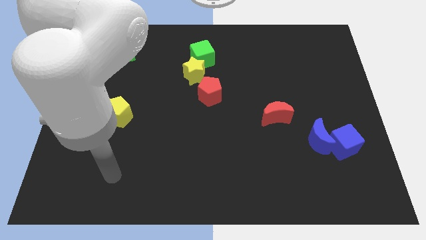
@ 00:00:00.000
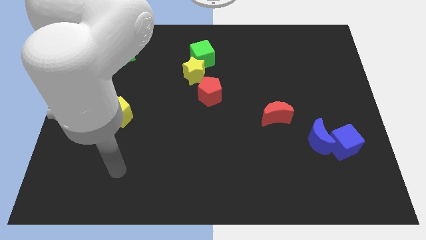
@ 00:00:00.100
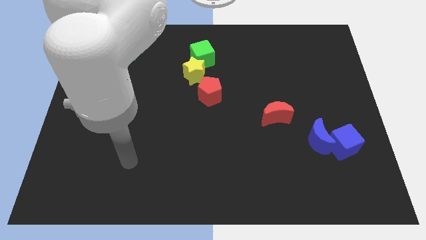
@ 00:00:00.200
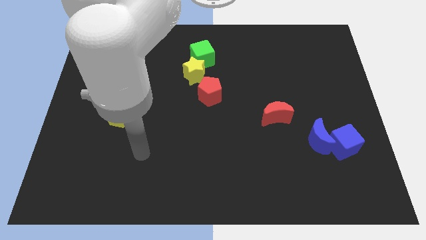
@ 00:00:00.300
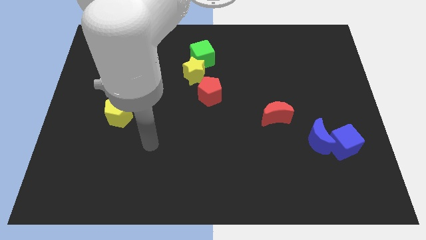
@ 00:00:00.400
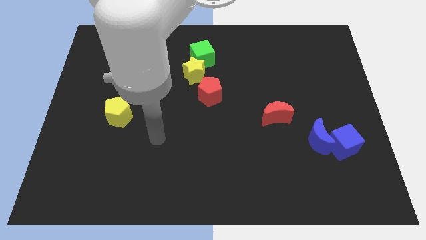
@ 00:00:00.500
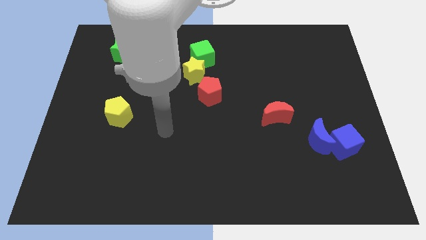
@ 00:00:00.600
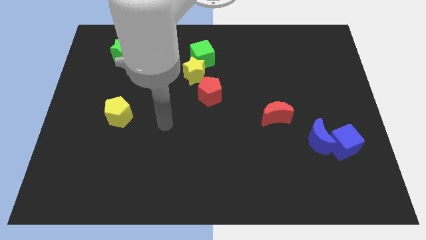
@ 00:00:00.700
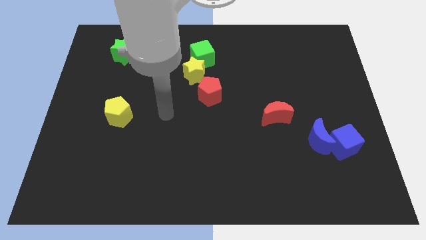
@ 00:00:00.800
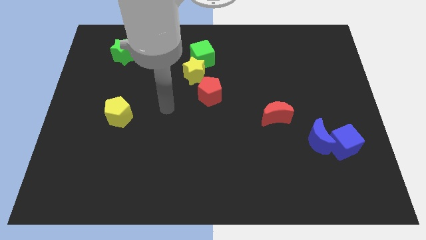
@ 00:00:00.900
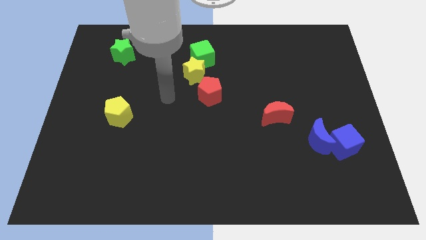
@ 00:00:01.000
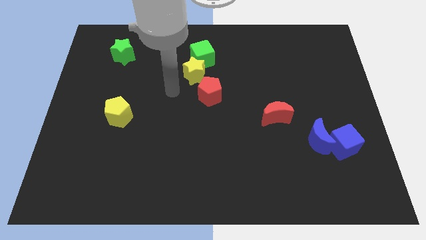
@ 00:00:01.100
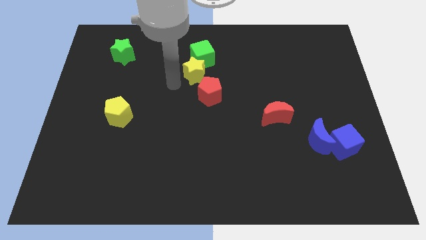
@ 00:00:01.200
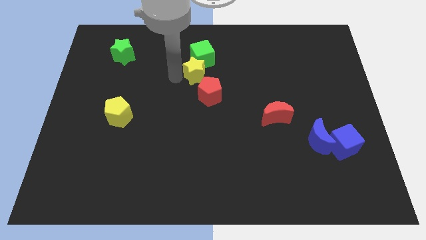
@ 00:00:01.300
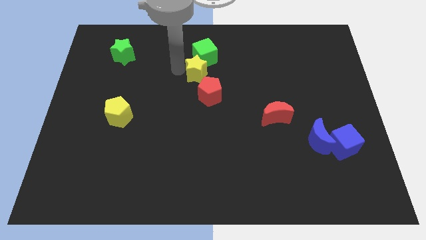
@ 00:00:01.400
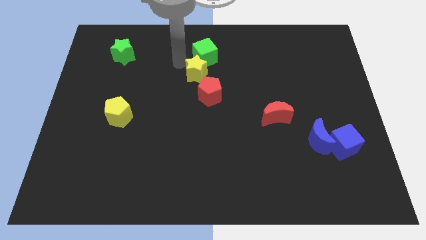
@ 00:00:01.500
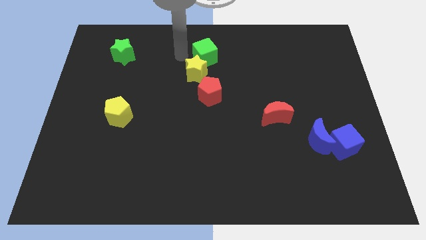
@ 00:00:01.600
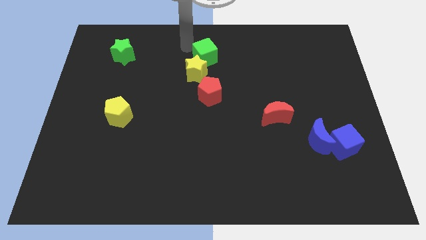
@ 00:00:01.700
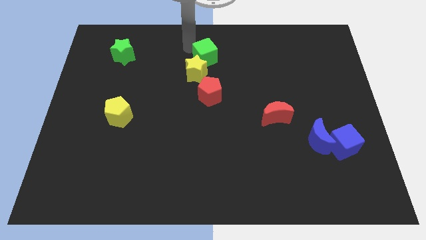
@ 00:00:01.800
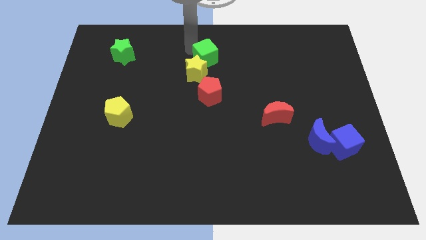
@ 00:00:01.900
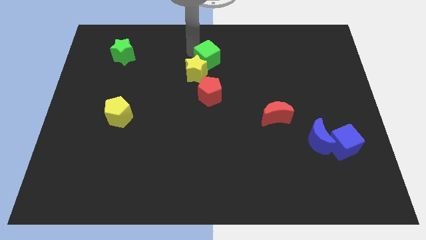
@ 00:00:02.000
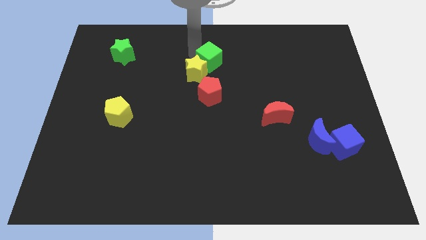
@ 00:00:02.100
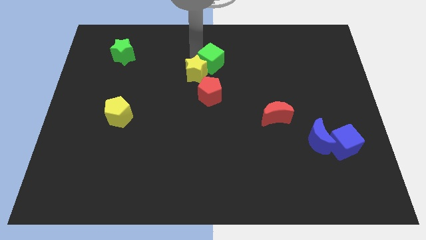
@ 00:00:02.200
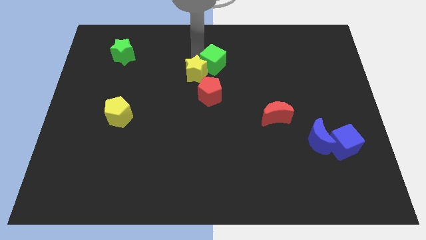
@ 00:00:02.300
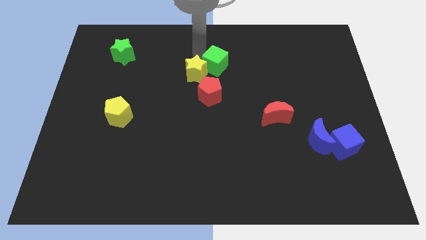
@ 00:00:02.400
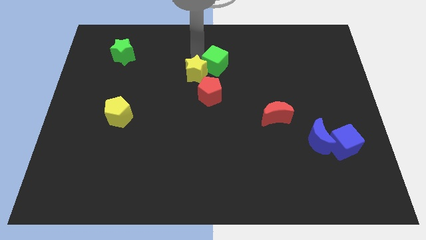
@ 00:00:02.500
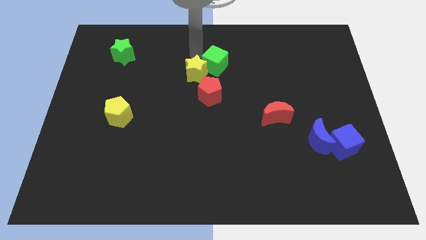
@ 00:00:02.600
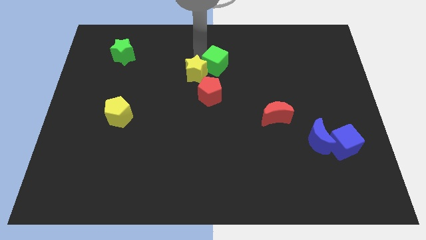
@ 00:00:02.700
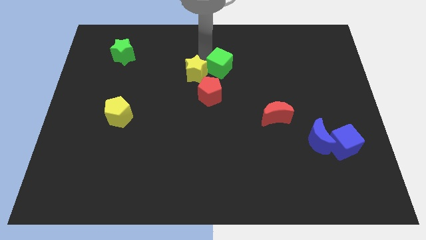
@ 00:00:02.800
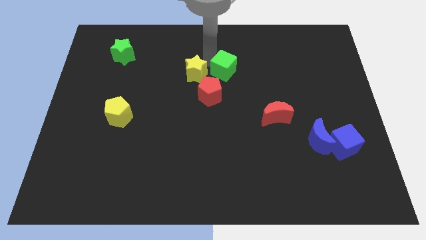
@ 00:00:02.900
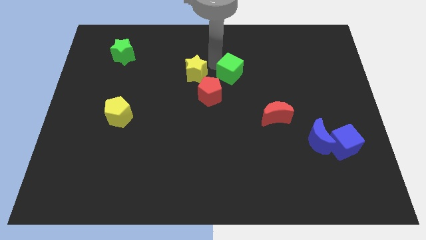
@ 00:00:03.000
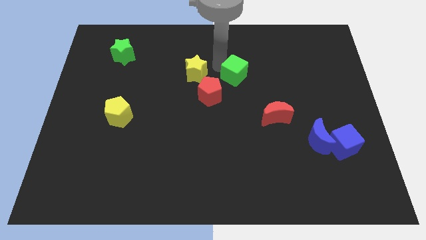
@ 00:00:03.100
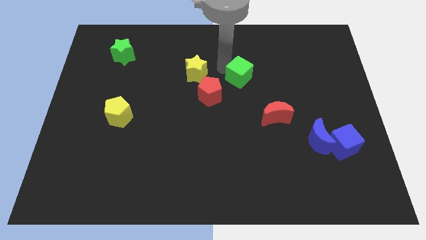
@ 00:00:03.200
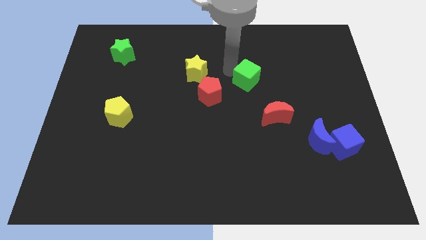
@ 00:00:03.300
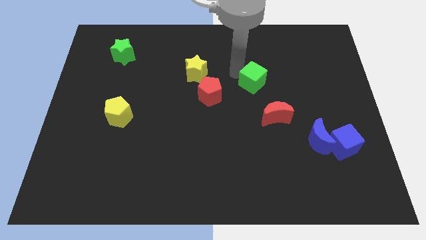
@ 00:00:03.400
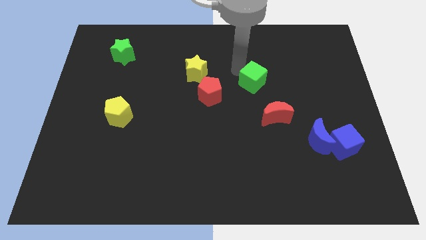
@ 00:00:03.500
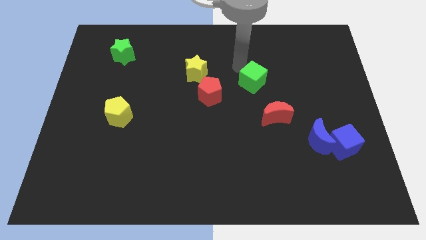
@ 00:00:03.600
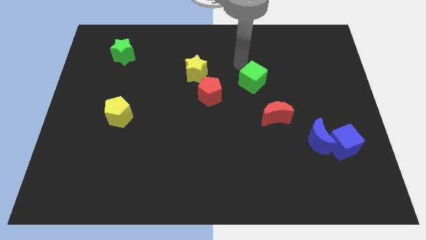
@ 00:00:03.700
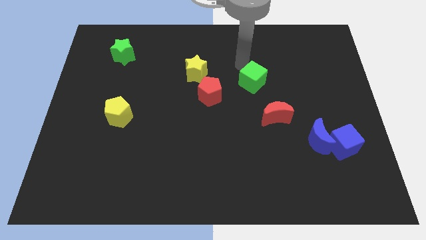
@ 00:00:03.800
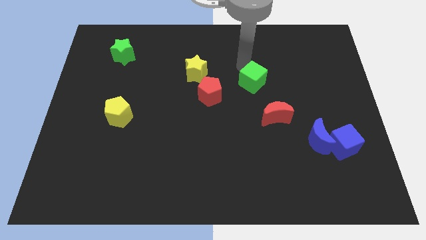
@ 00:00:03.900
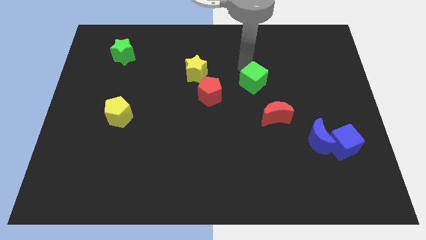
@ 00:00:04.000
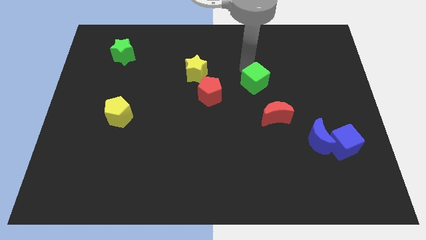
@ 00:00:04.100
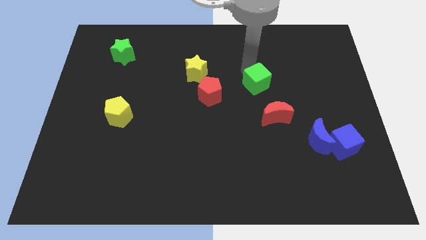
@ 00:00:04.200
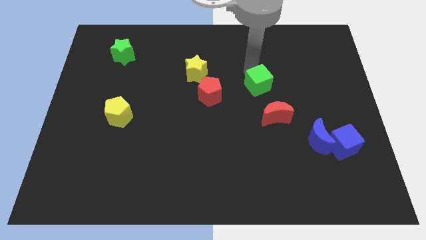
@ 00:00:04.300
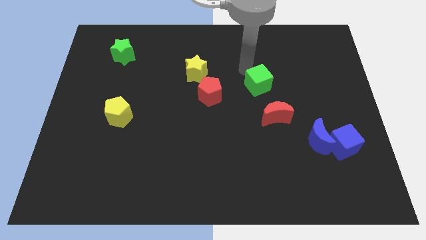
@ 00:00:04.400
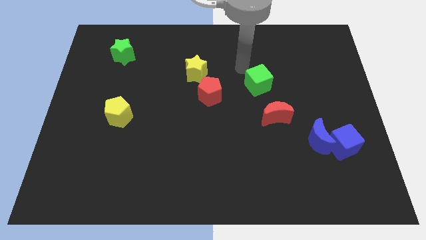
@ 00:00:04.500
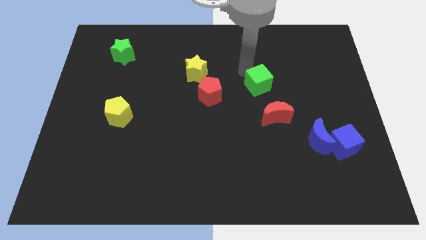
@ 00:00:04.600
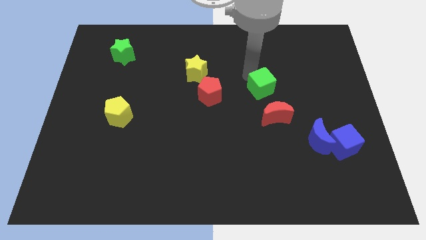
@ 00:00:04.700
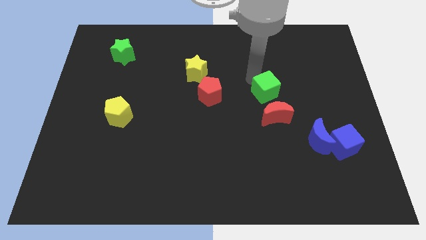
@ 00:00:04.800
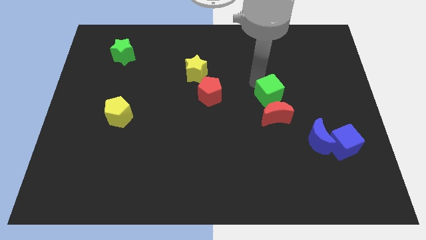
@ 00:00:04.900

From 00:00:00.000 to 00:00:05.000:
move the green cube diagonally downwards and to the right

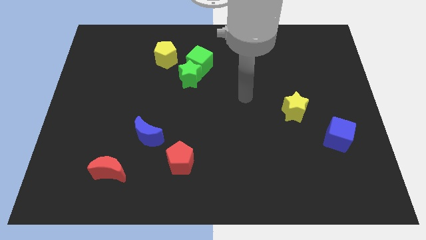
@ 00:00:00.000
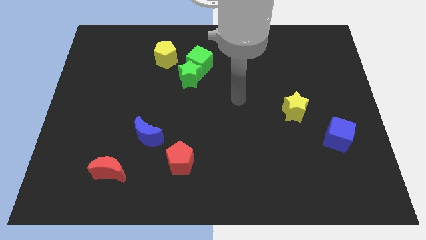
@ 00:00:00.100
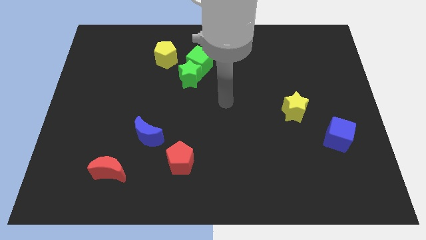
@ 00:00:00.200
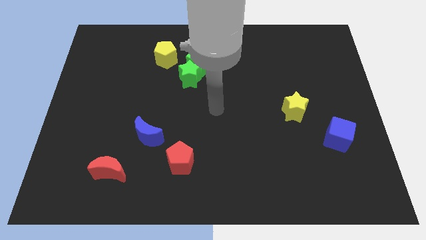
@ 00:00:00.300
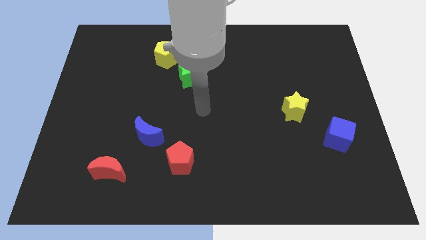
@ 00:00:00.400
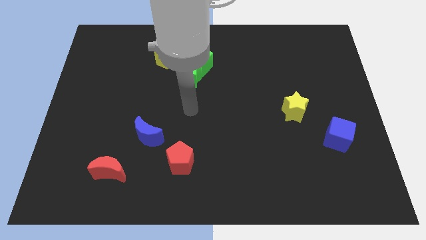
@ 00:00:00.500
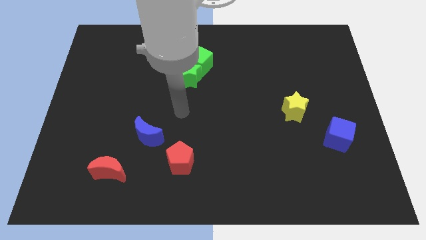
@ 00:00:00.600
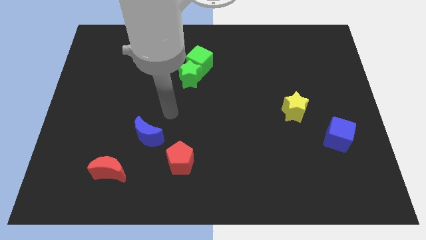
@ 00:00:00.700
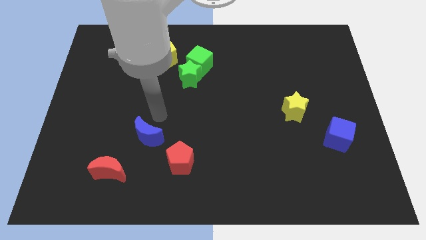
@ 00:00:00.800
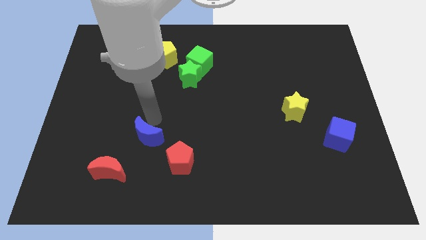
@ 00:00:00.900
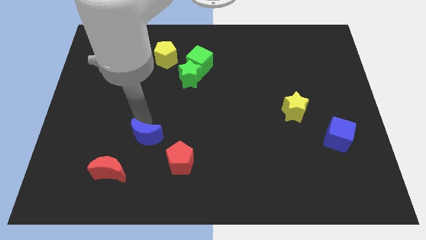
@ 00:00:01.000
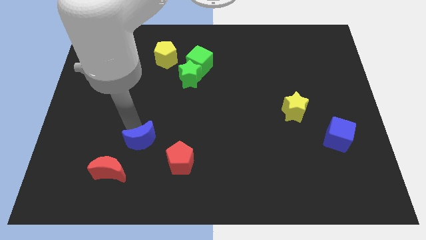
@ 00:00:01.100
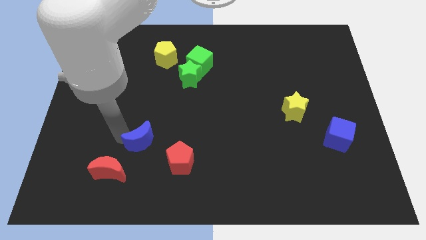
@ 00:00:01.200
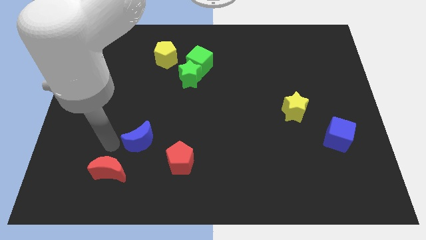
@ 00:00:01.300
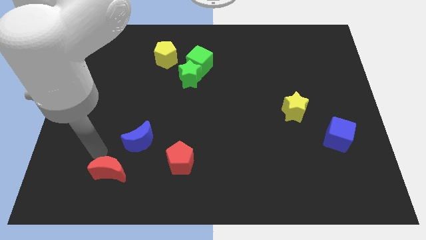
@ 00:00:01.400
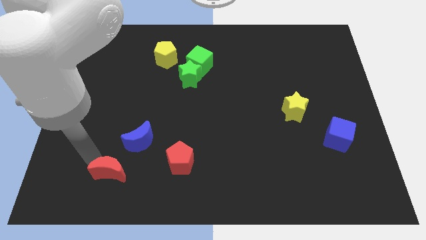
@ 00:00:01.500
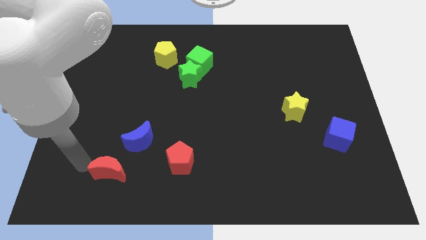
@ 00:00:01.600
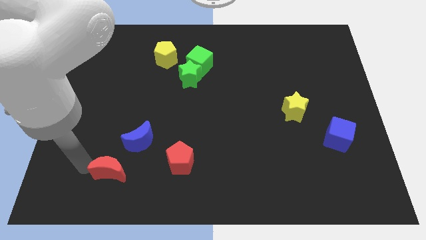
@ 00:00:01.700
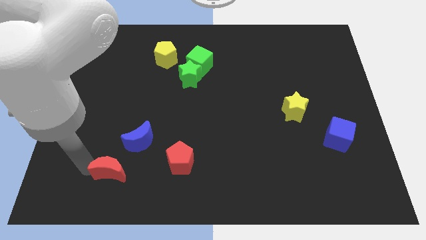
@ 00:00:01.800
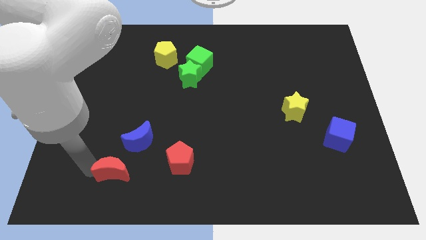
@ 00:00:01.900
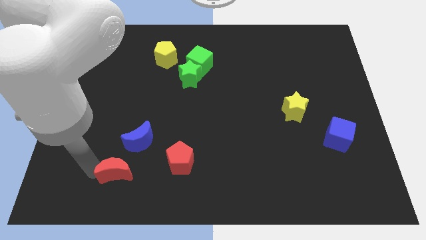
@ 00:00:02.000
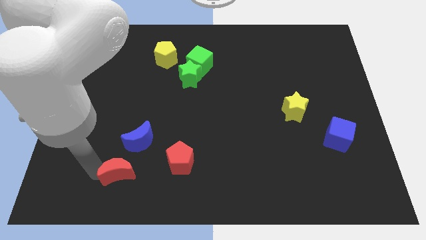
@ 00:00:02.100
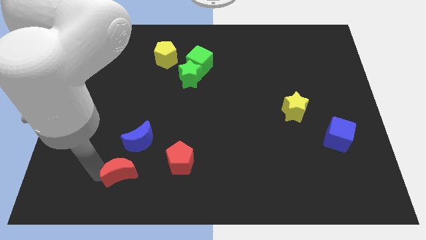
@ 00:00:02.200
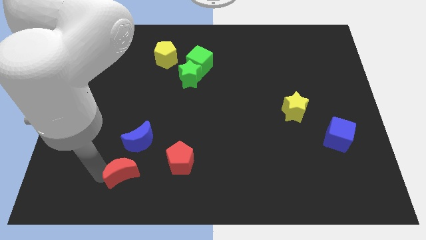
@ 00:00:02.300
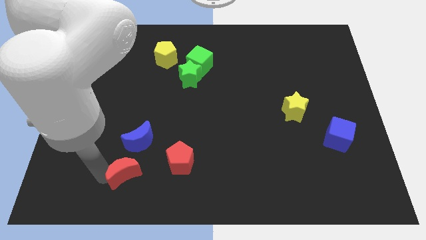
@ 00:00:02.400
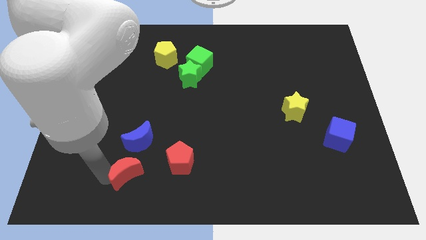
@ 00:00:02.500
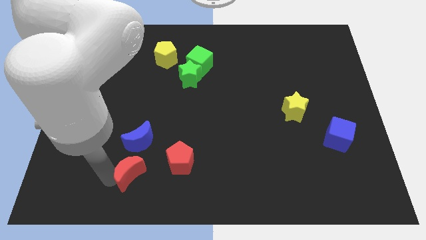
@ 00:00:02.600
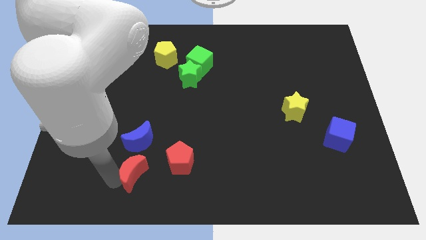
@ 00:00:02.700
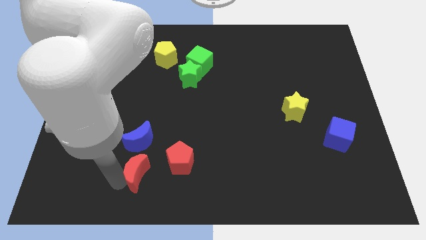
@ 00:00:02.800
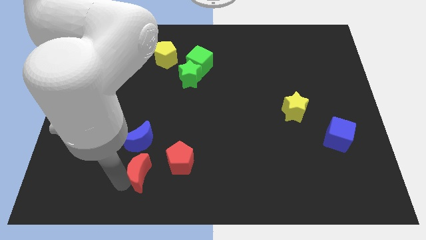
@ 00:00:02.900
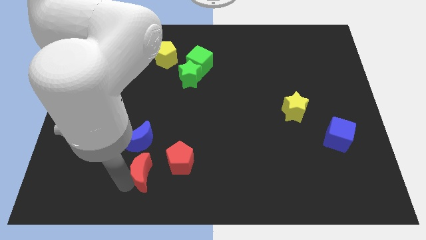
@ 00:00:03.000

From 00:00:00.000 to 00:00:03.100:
push the red moon right slightly

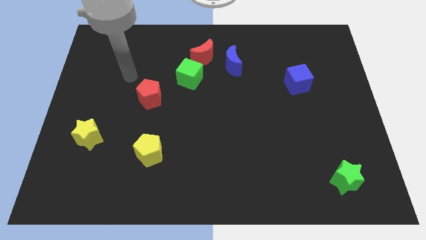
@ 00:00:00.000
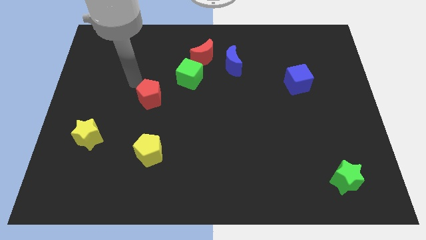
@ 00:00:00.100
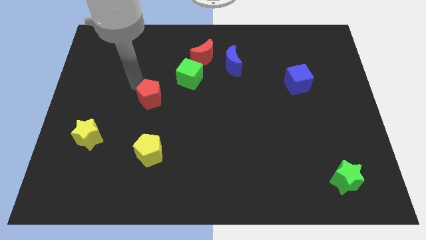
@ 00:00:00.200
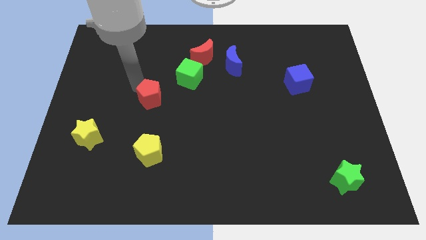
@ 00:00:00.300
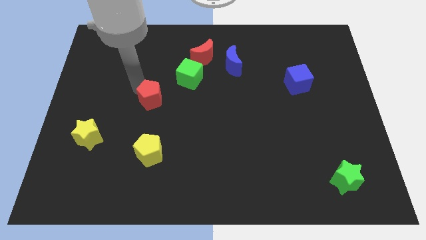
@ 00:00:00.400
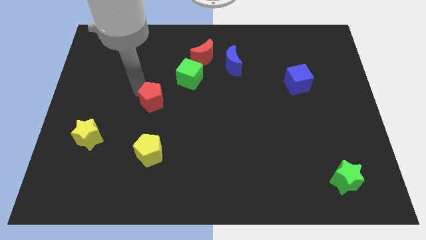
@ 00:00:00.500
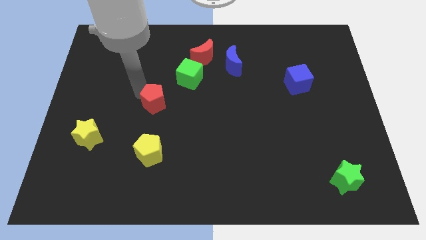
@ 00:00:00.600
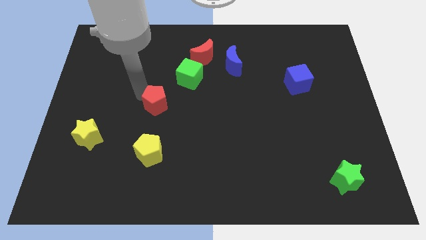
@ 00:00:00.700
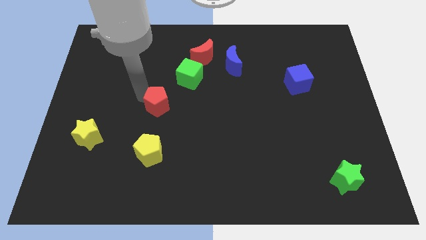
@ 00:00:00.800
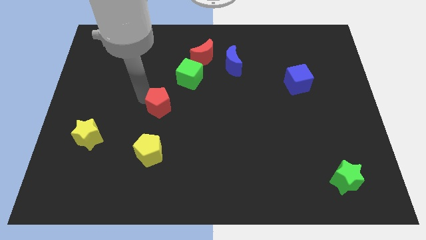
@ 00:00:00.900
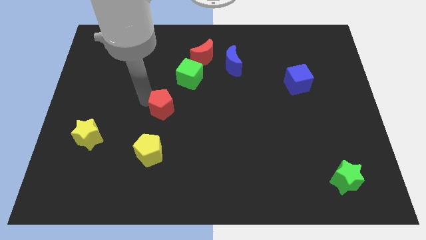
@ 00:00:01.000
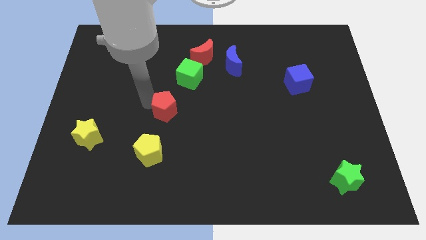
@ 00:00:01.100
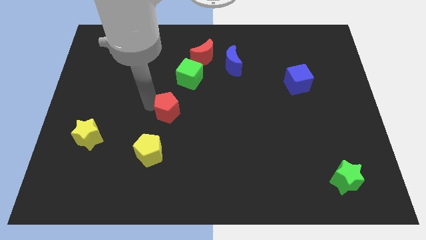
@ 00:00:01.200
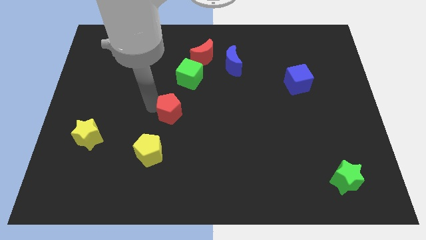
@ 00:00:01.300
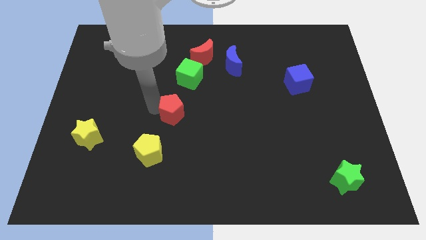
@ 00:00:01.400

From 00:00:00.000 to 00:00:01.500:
slide the red pentagon somewhat diagonally downwards and right
